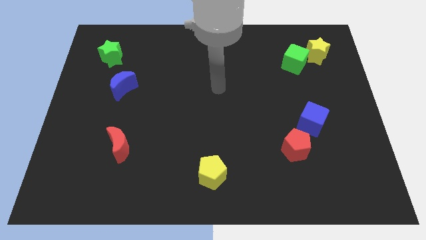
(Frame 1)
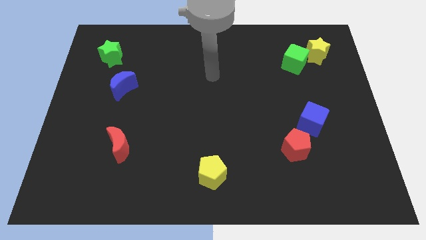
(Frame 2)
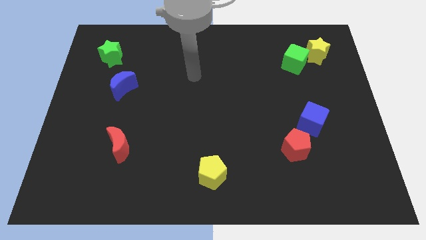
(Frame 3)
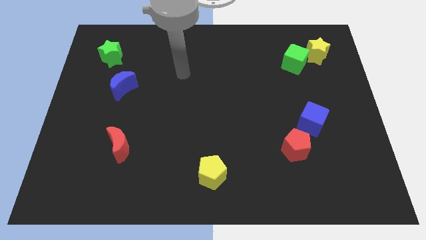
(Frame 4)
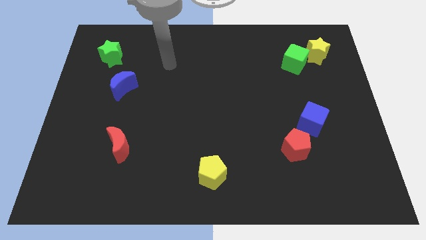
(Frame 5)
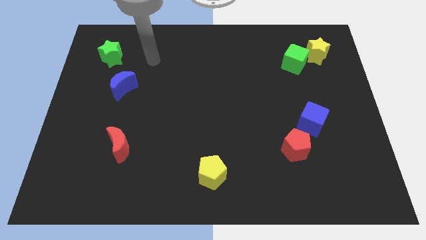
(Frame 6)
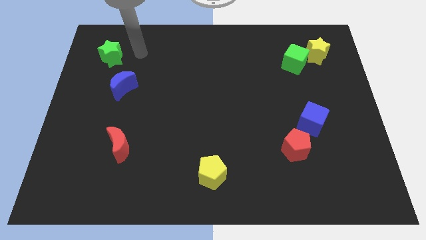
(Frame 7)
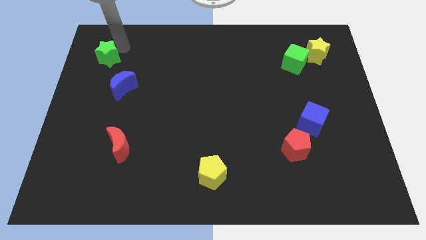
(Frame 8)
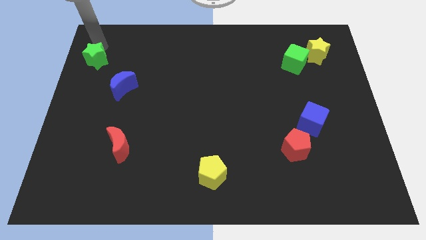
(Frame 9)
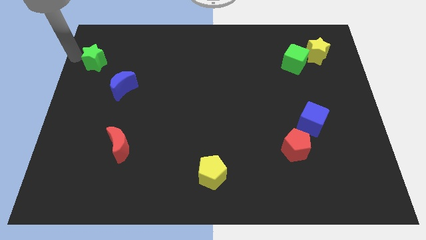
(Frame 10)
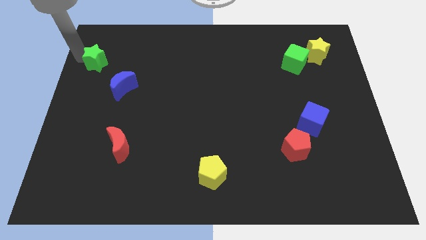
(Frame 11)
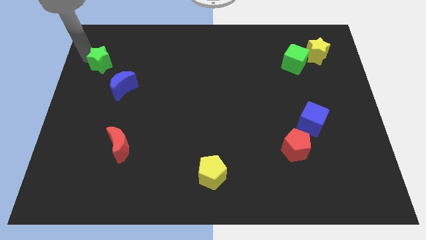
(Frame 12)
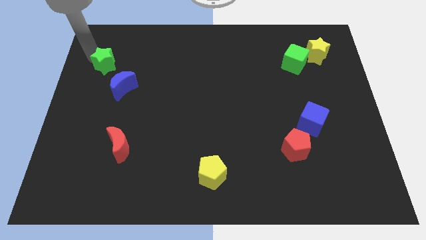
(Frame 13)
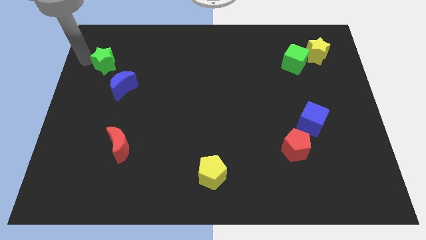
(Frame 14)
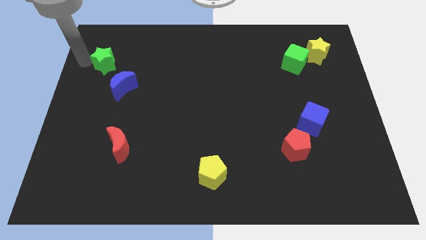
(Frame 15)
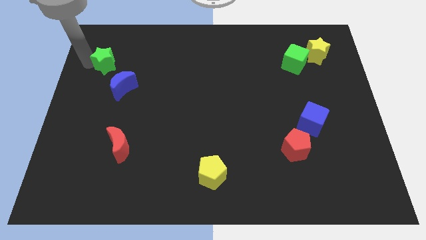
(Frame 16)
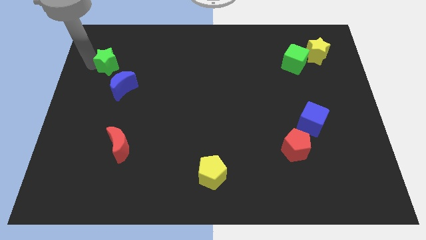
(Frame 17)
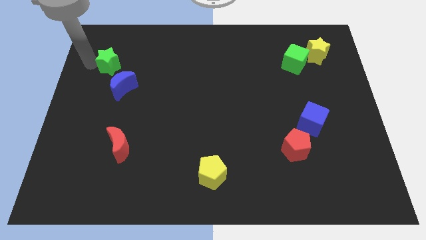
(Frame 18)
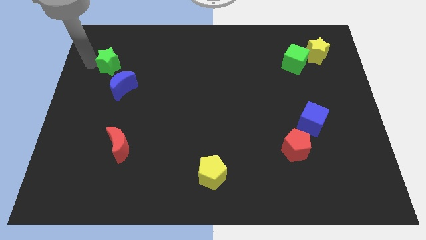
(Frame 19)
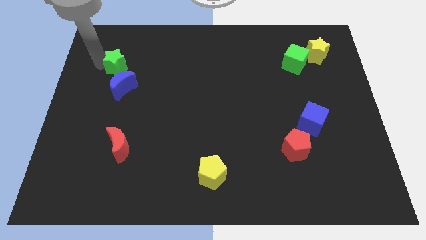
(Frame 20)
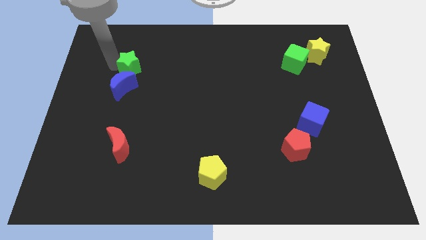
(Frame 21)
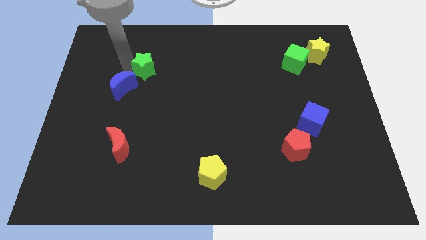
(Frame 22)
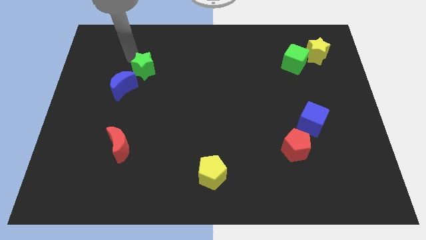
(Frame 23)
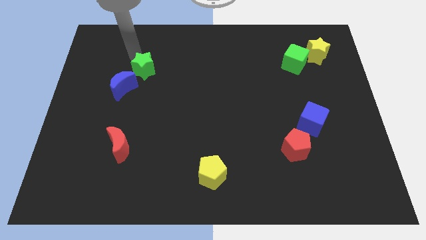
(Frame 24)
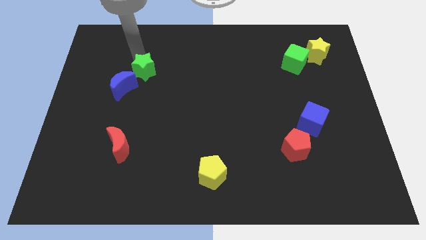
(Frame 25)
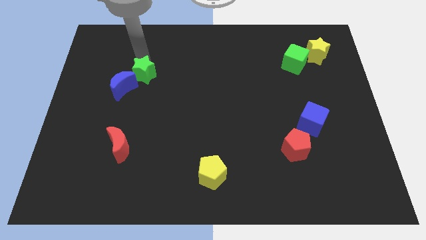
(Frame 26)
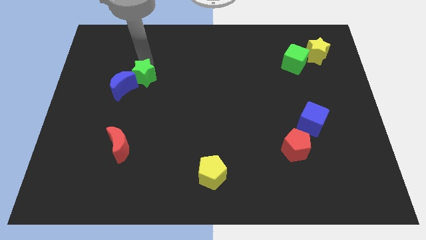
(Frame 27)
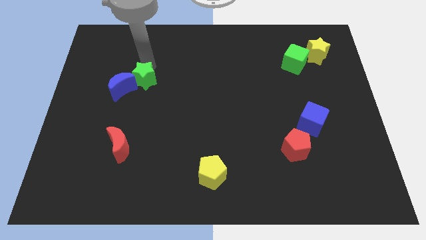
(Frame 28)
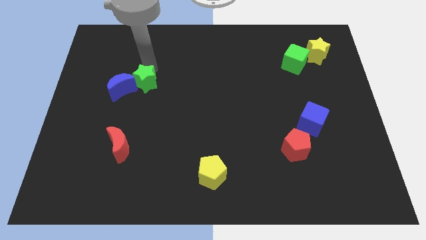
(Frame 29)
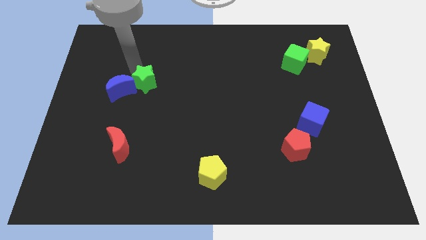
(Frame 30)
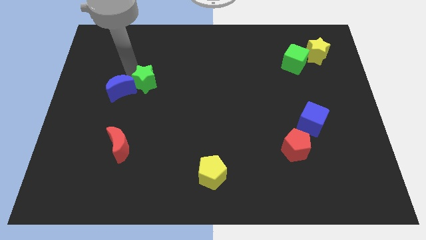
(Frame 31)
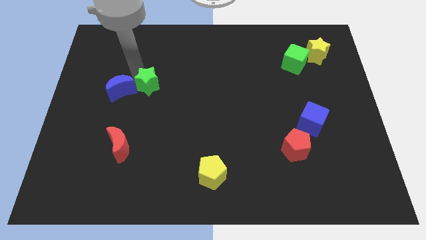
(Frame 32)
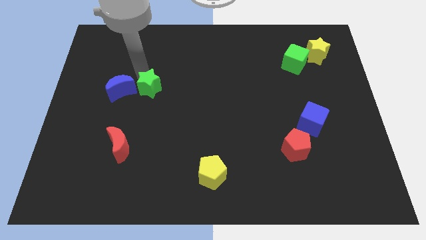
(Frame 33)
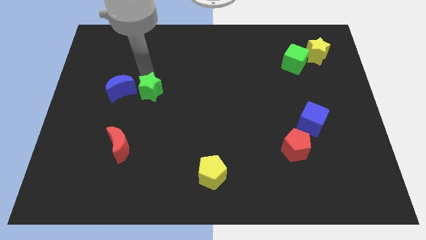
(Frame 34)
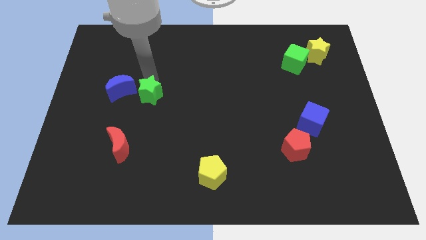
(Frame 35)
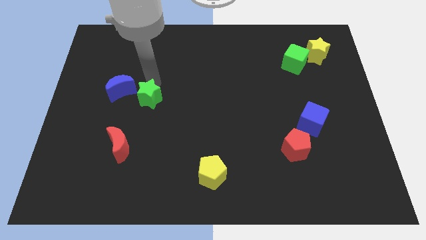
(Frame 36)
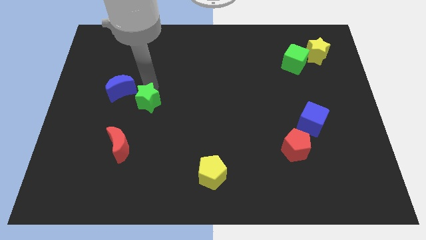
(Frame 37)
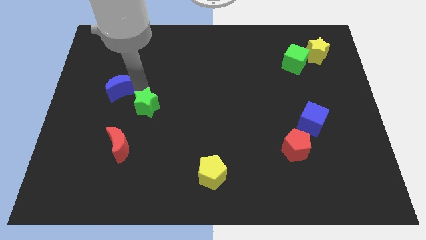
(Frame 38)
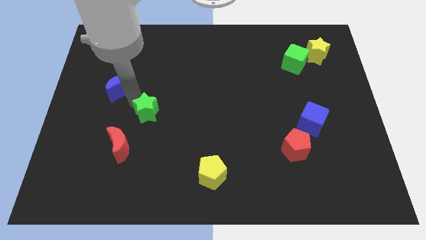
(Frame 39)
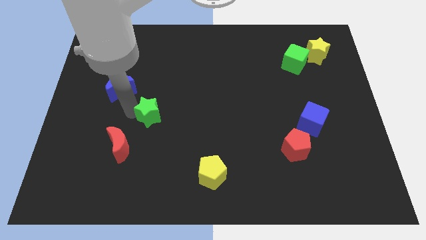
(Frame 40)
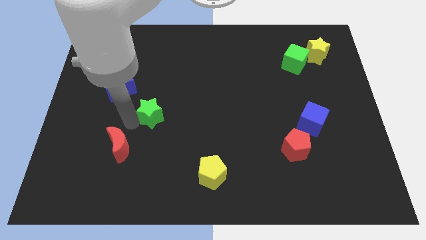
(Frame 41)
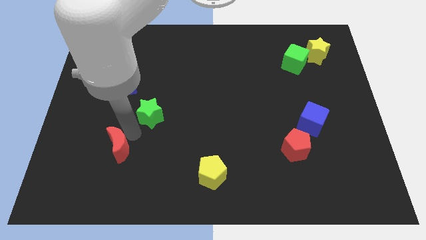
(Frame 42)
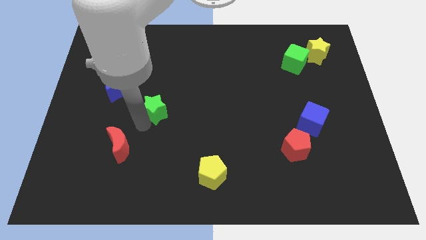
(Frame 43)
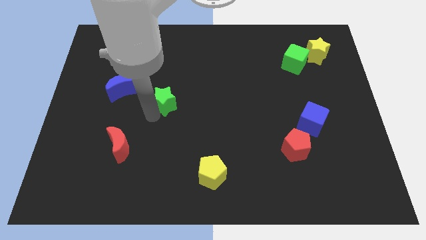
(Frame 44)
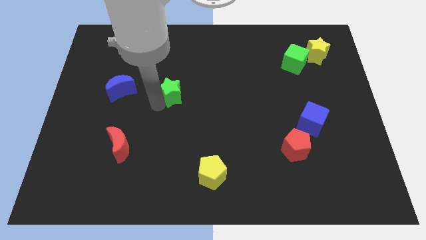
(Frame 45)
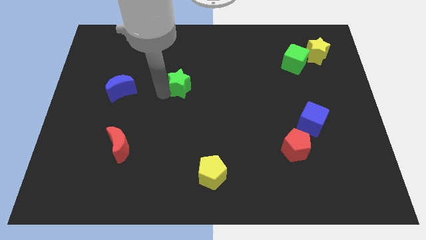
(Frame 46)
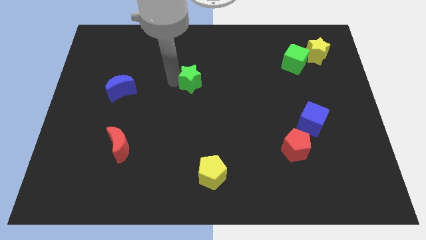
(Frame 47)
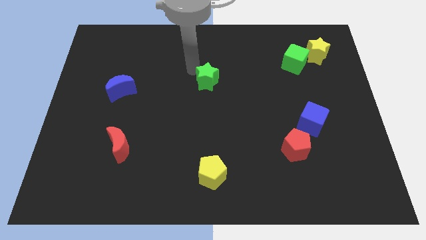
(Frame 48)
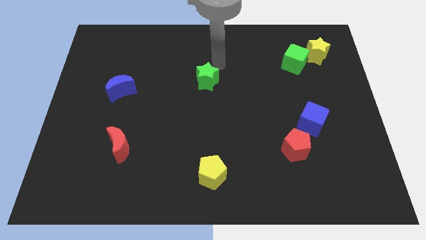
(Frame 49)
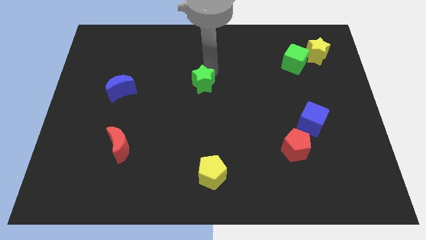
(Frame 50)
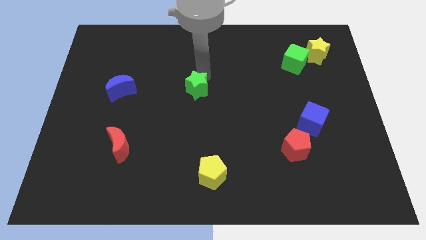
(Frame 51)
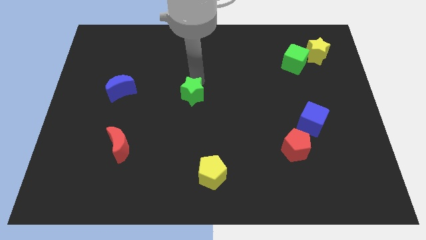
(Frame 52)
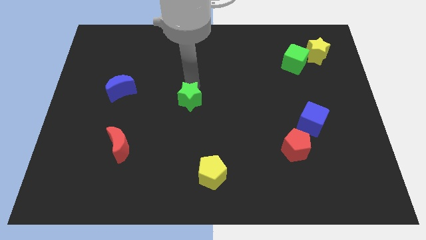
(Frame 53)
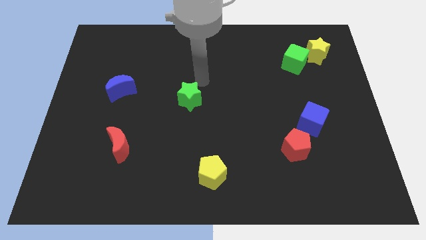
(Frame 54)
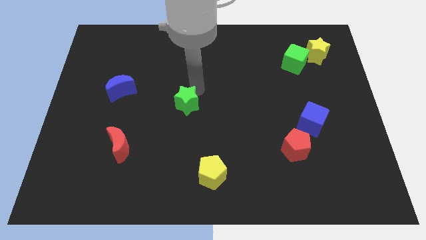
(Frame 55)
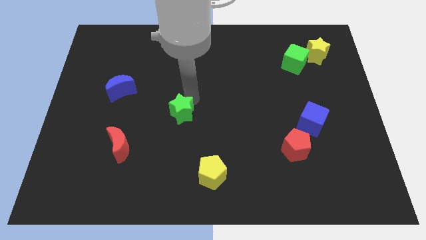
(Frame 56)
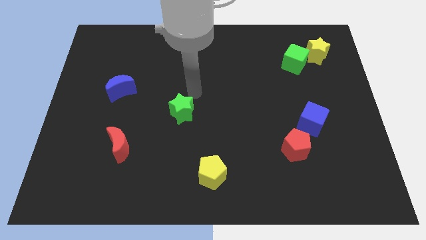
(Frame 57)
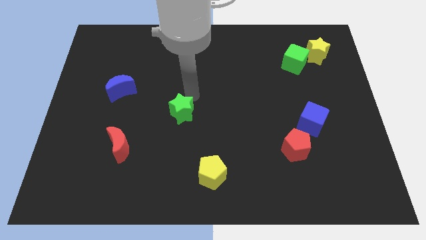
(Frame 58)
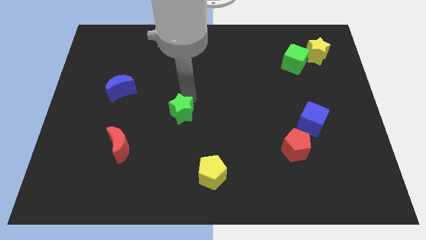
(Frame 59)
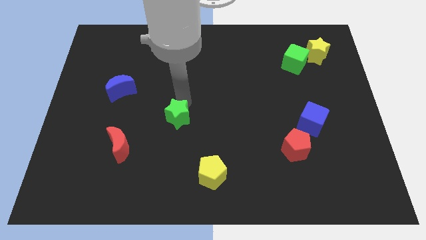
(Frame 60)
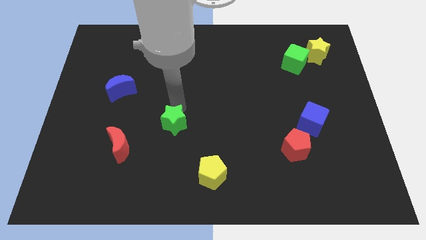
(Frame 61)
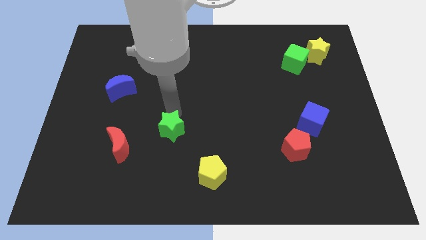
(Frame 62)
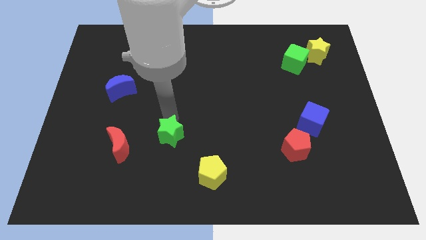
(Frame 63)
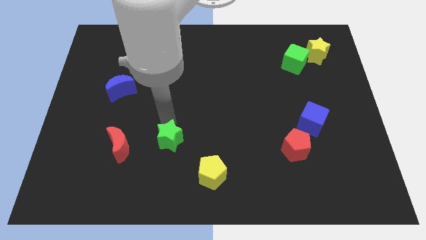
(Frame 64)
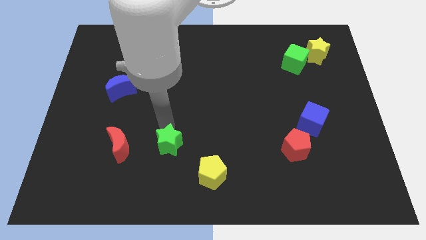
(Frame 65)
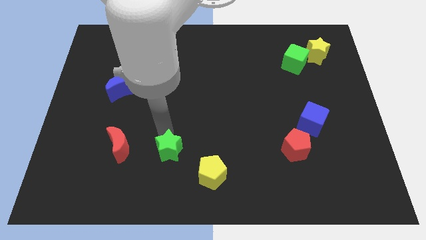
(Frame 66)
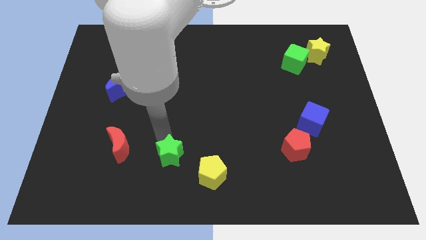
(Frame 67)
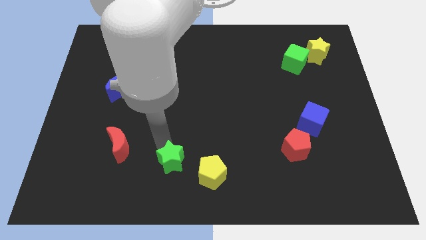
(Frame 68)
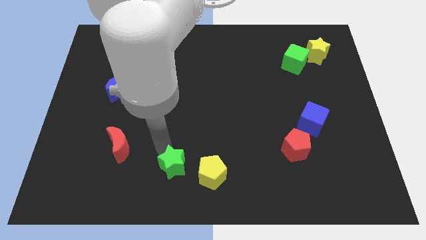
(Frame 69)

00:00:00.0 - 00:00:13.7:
slide the green star to the bottom side
